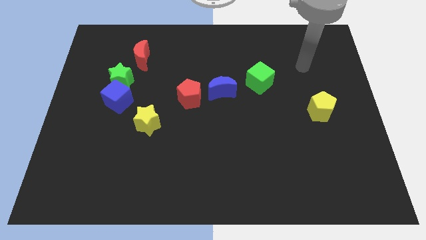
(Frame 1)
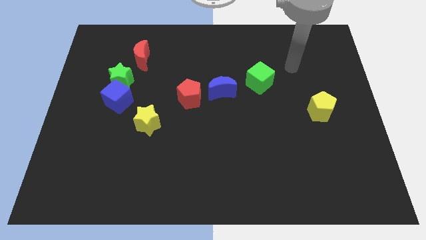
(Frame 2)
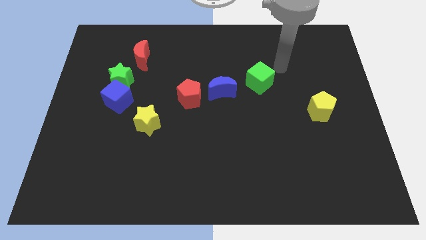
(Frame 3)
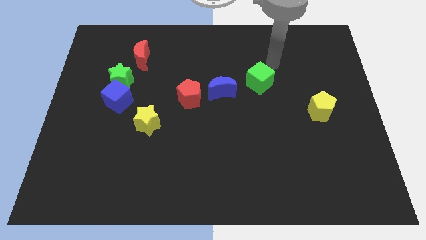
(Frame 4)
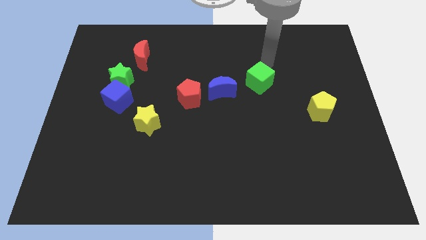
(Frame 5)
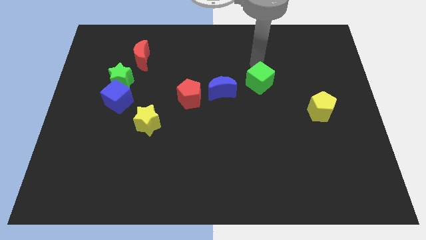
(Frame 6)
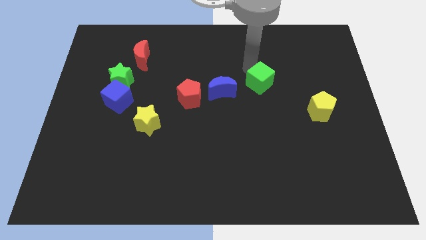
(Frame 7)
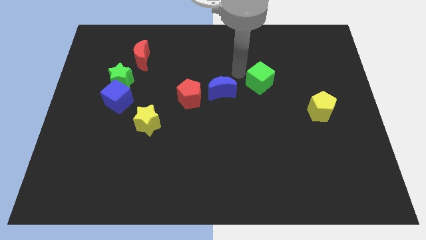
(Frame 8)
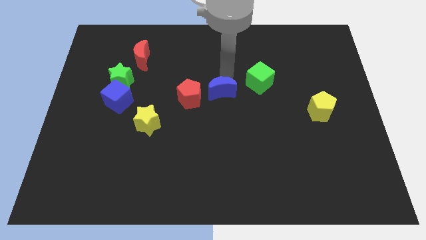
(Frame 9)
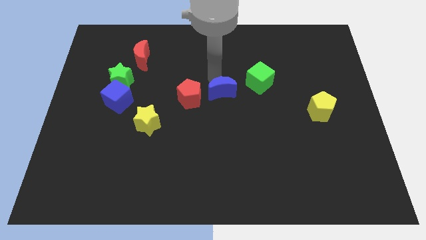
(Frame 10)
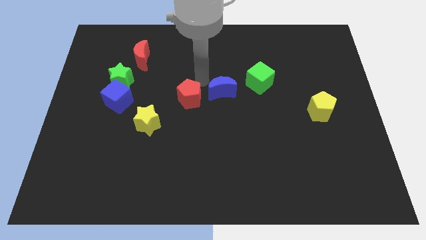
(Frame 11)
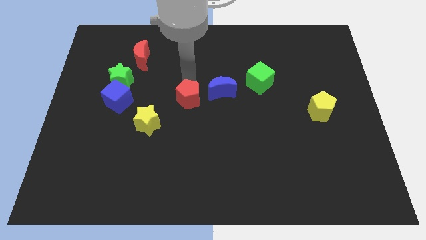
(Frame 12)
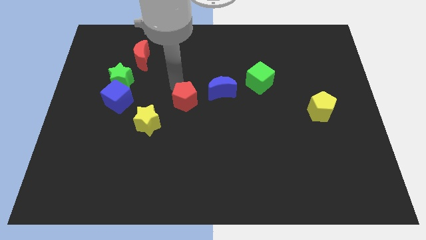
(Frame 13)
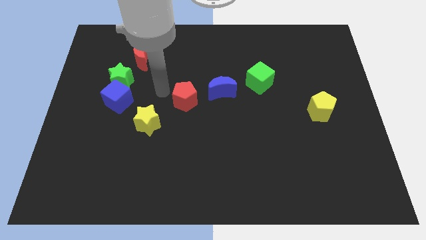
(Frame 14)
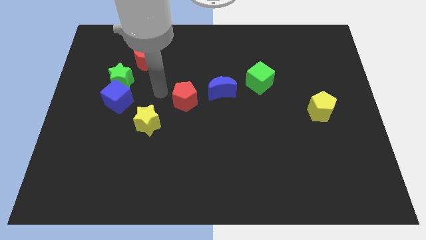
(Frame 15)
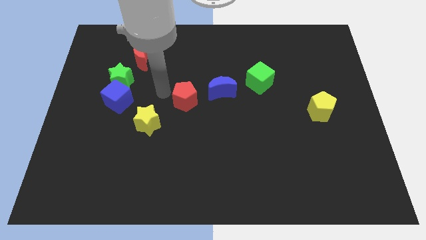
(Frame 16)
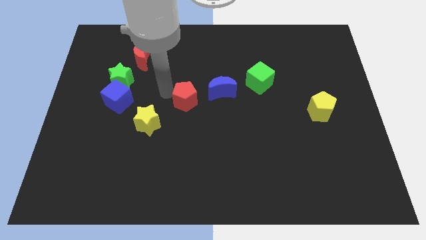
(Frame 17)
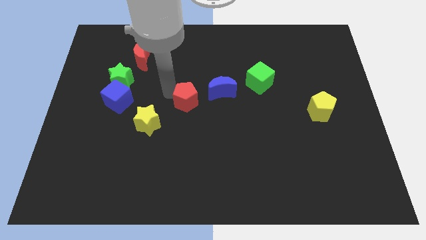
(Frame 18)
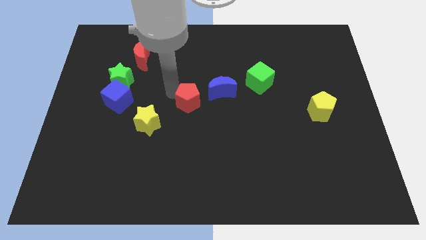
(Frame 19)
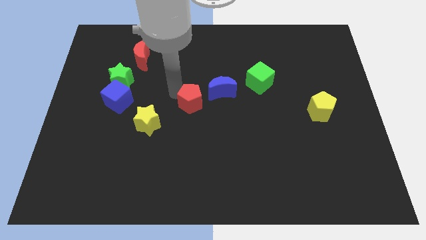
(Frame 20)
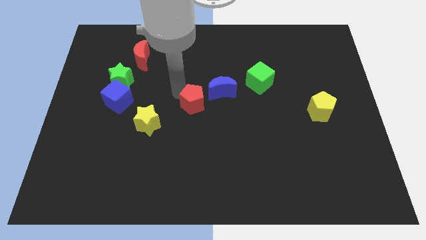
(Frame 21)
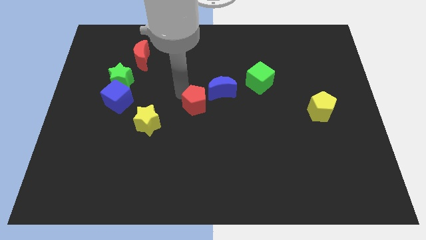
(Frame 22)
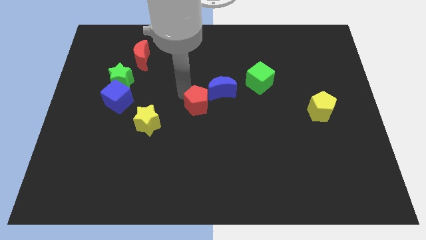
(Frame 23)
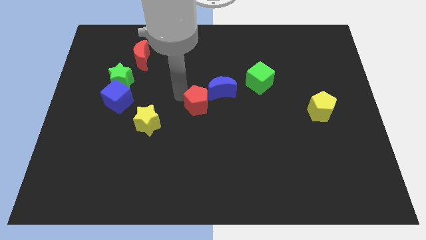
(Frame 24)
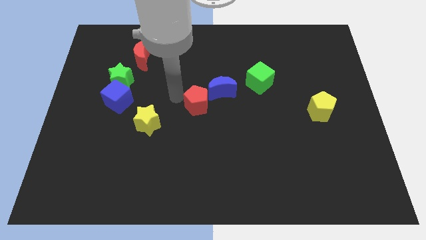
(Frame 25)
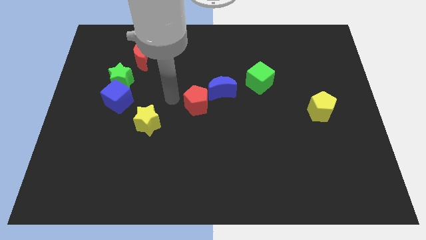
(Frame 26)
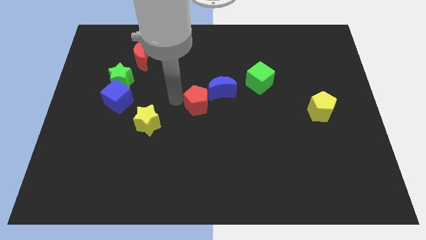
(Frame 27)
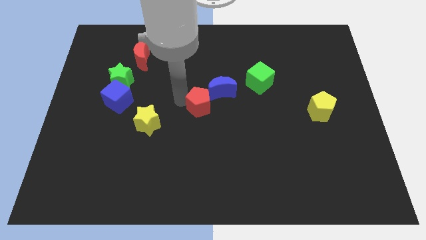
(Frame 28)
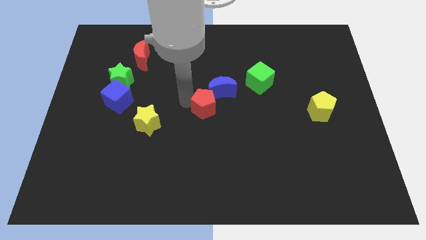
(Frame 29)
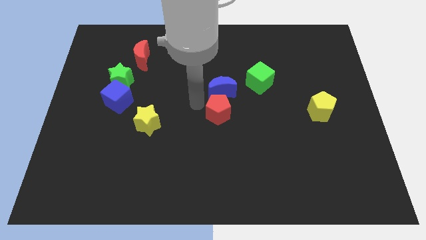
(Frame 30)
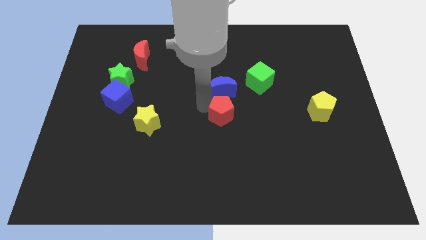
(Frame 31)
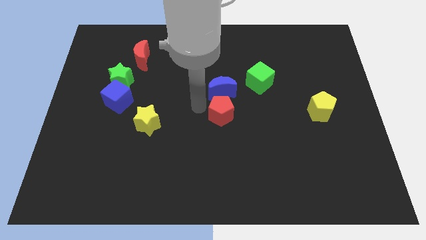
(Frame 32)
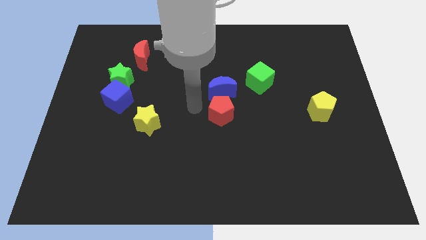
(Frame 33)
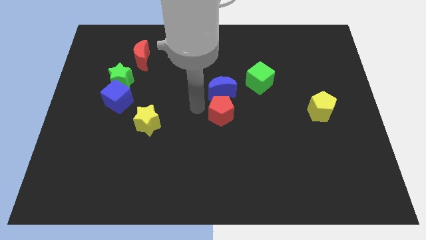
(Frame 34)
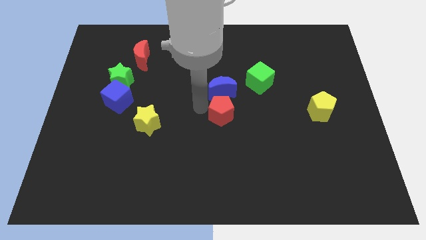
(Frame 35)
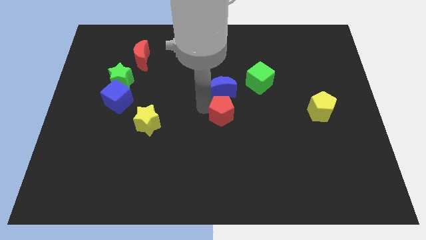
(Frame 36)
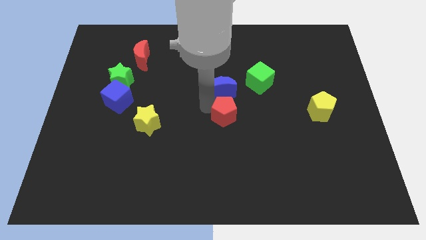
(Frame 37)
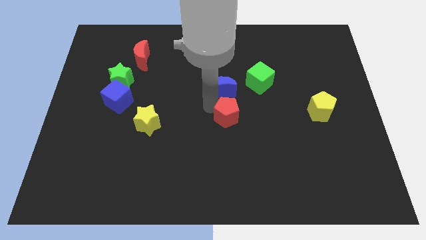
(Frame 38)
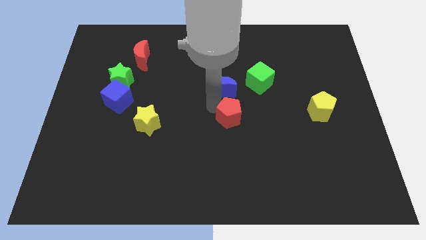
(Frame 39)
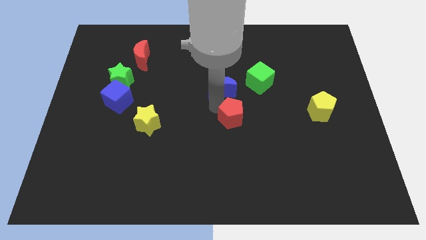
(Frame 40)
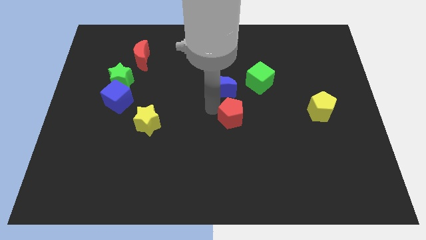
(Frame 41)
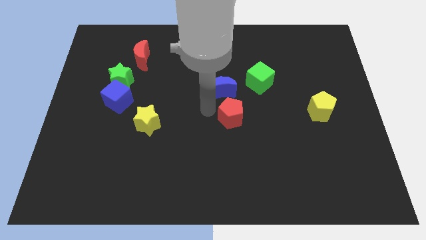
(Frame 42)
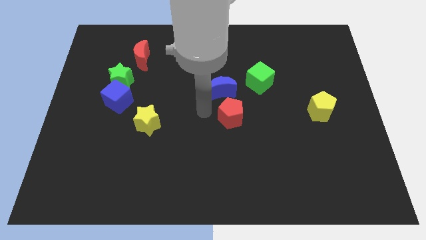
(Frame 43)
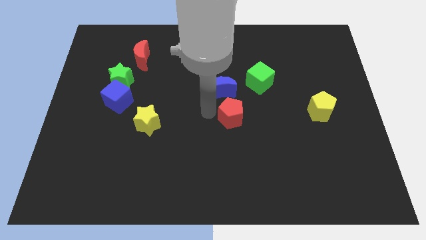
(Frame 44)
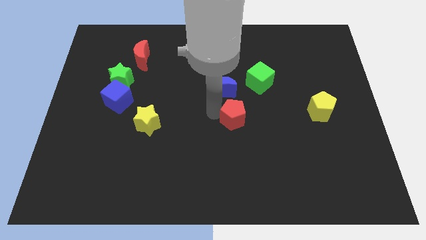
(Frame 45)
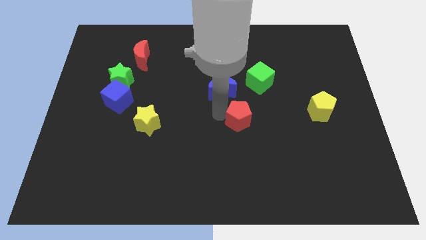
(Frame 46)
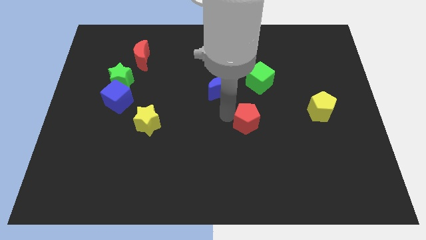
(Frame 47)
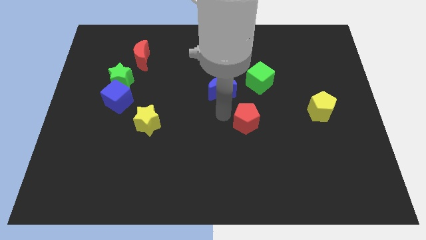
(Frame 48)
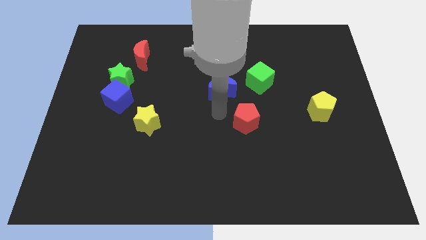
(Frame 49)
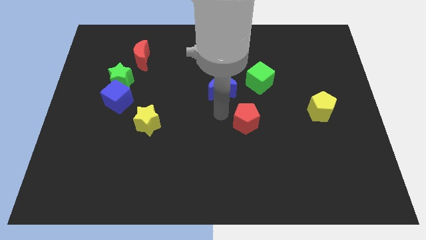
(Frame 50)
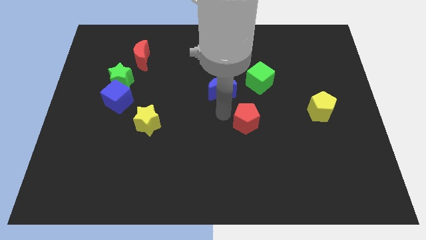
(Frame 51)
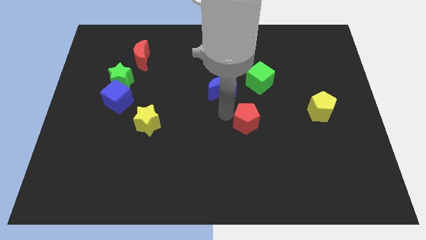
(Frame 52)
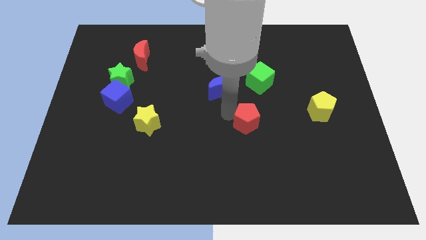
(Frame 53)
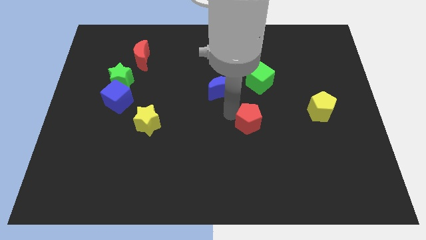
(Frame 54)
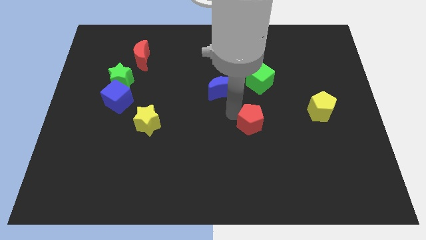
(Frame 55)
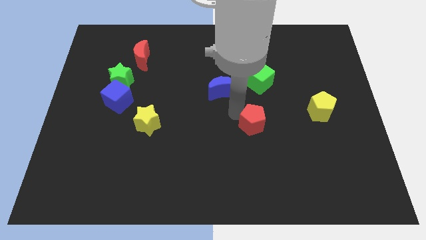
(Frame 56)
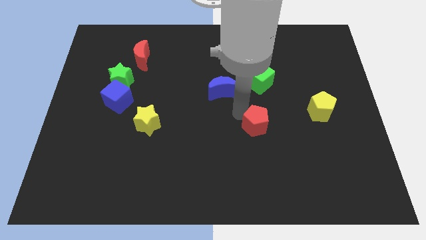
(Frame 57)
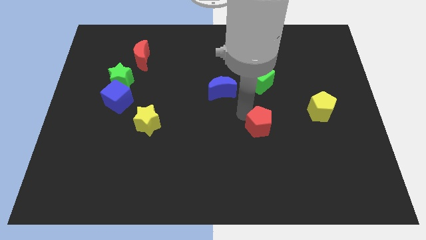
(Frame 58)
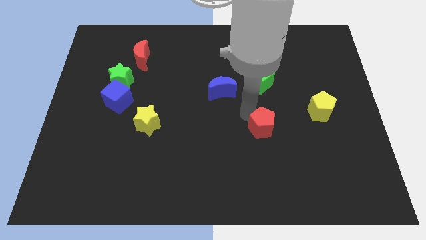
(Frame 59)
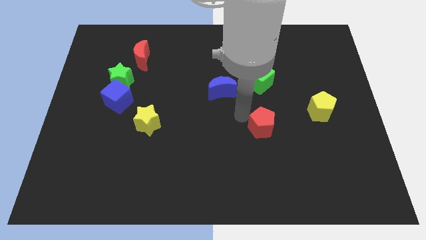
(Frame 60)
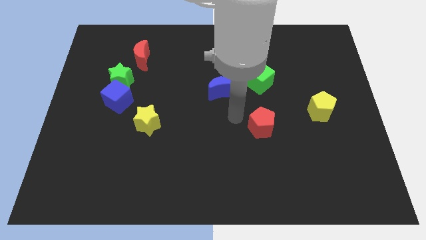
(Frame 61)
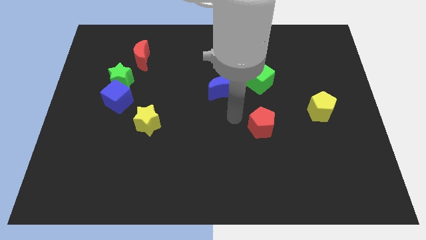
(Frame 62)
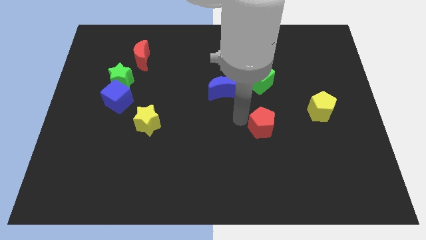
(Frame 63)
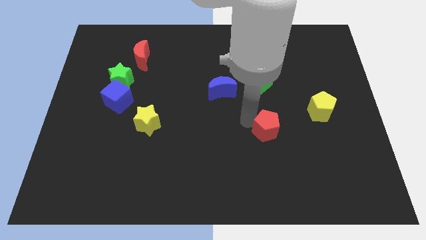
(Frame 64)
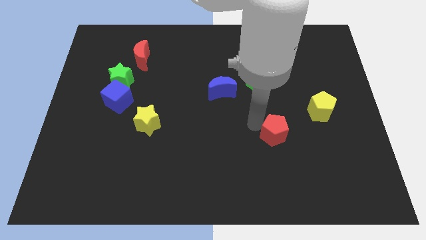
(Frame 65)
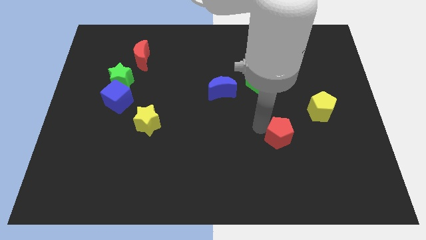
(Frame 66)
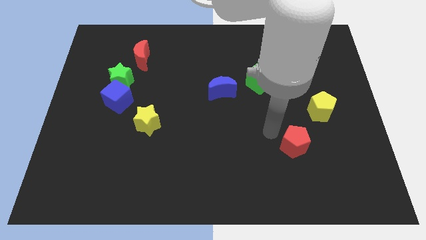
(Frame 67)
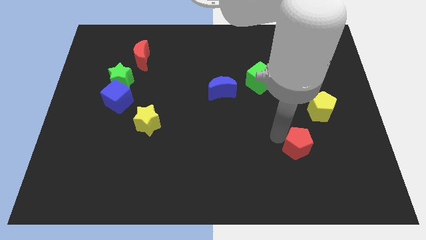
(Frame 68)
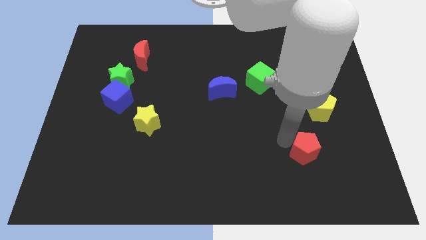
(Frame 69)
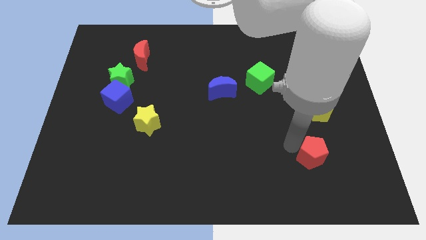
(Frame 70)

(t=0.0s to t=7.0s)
push the red pentagon to the bottom of the yellow pentagon

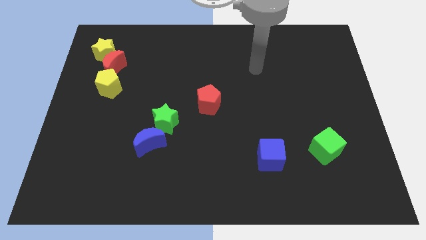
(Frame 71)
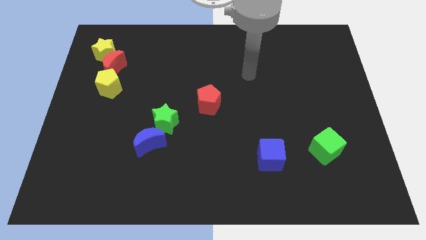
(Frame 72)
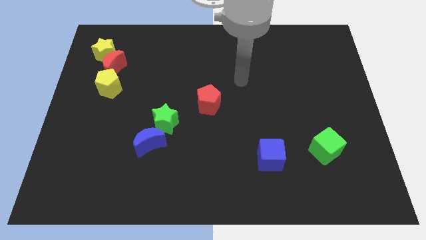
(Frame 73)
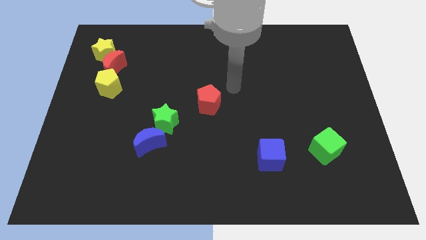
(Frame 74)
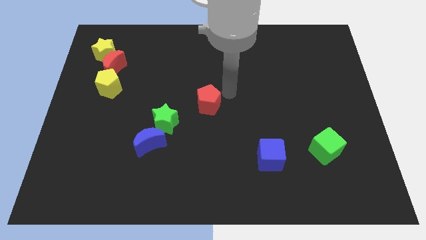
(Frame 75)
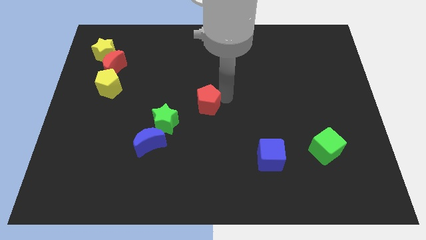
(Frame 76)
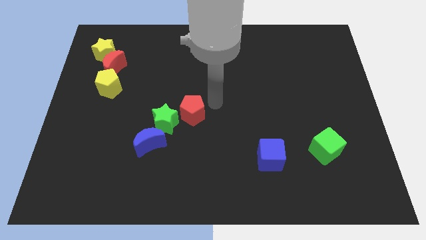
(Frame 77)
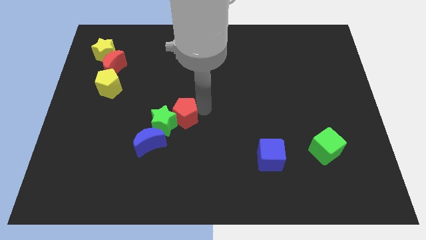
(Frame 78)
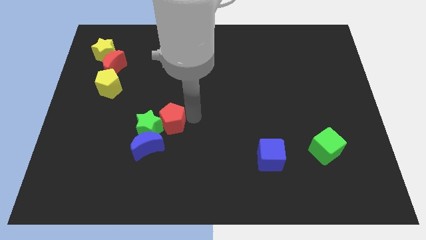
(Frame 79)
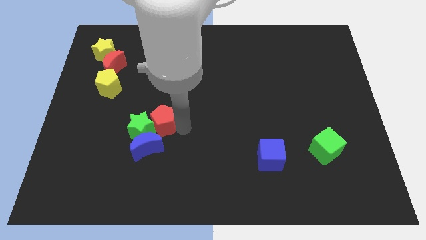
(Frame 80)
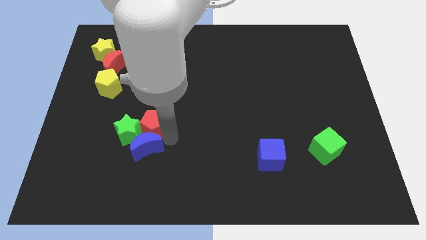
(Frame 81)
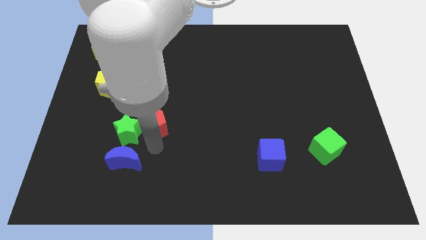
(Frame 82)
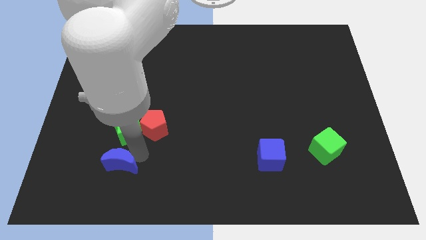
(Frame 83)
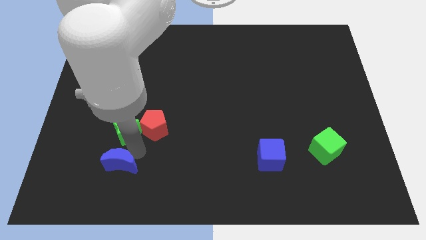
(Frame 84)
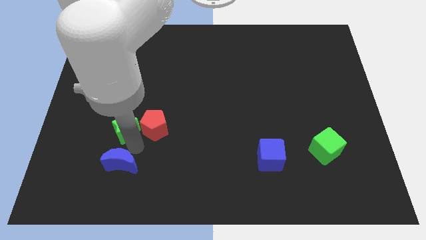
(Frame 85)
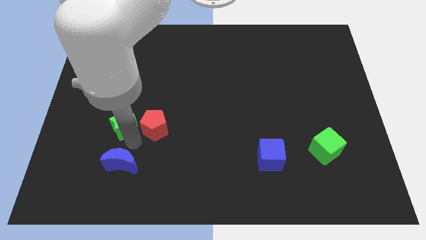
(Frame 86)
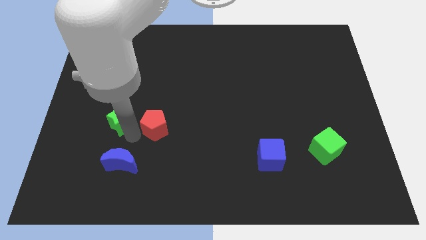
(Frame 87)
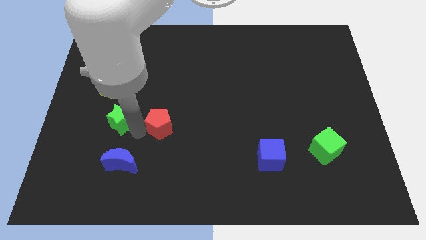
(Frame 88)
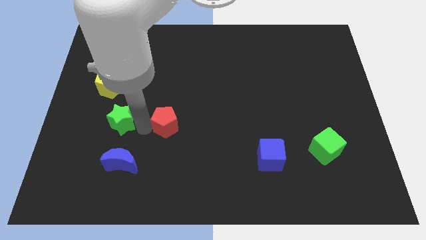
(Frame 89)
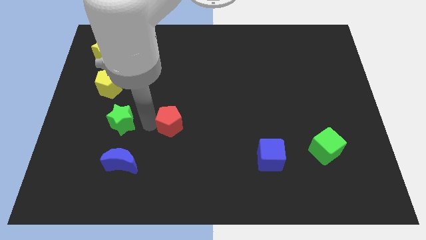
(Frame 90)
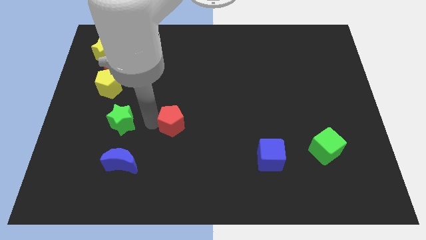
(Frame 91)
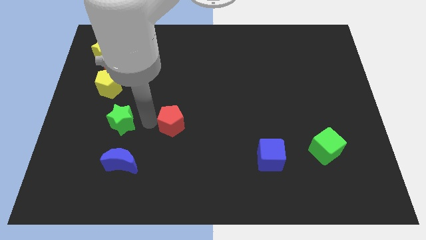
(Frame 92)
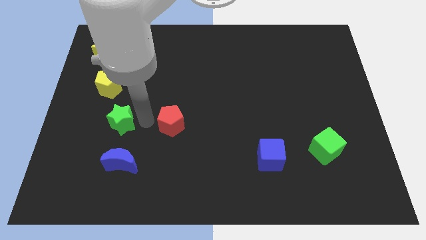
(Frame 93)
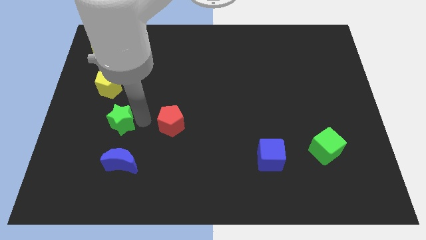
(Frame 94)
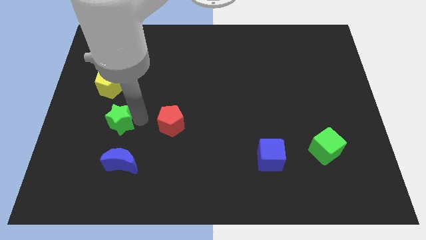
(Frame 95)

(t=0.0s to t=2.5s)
put the green star below the yellow pentagon
